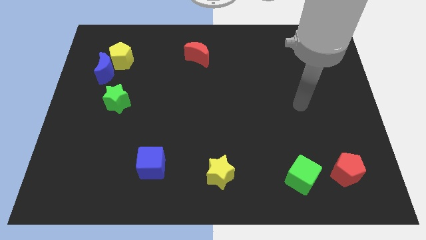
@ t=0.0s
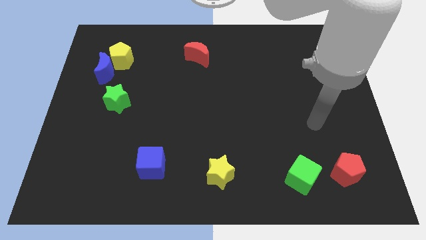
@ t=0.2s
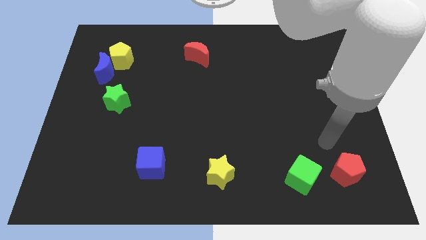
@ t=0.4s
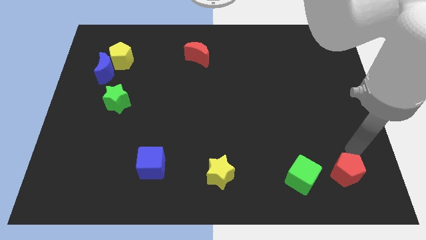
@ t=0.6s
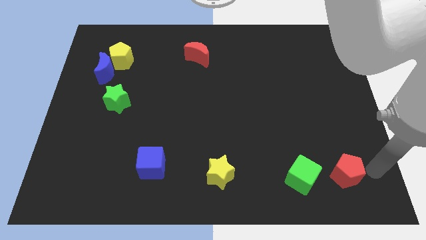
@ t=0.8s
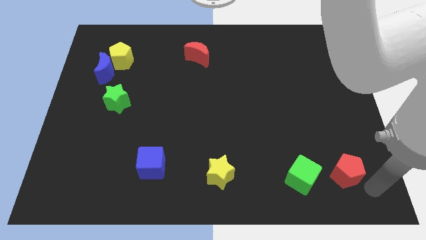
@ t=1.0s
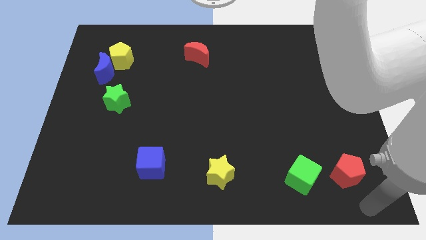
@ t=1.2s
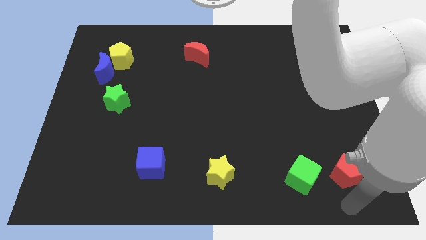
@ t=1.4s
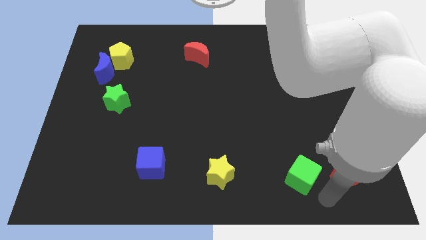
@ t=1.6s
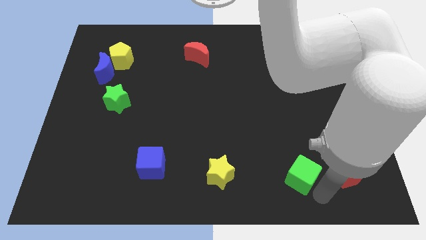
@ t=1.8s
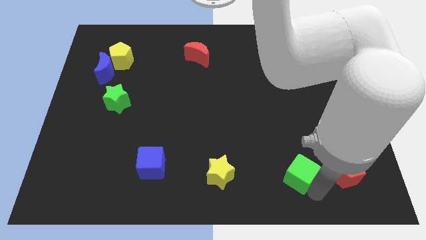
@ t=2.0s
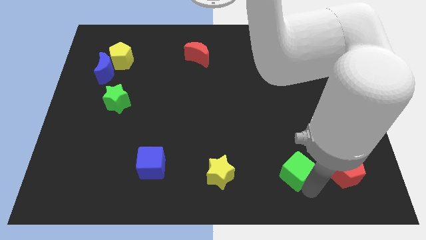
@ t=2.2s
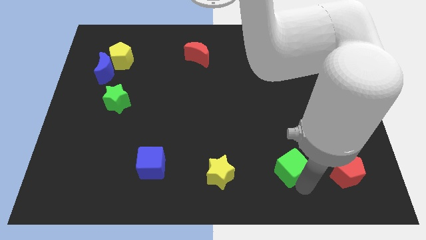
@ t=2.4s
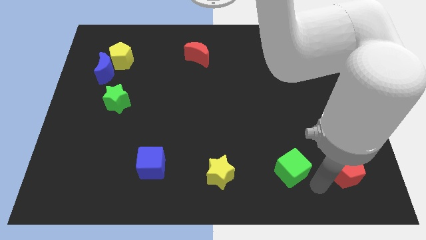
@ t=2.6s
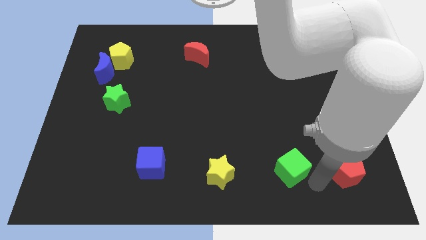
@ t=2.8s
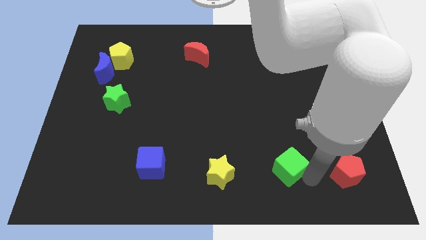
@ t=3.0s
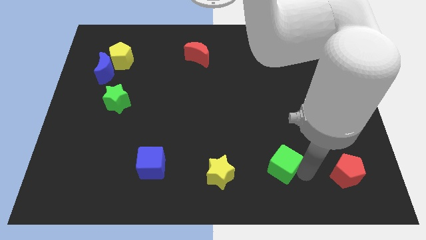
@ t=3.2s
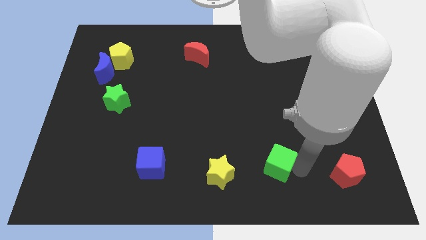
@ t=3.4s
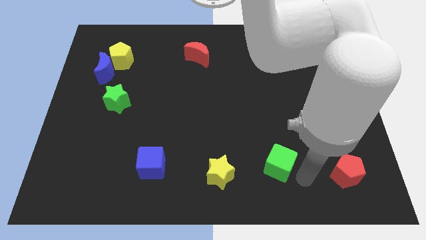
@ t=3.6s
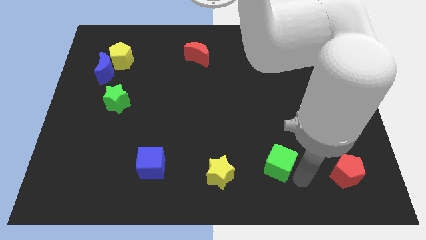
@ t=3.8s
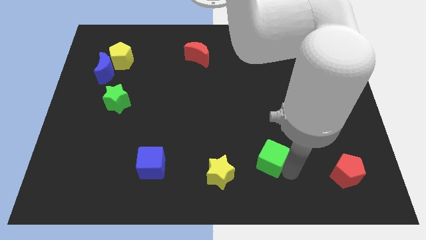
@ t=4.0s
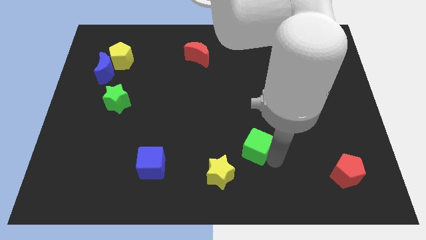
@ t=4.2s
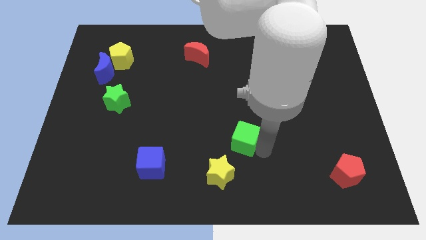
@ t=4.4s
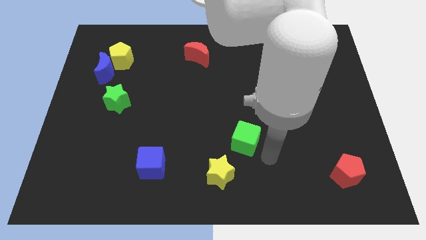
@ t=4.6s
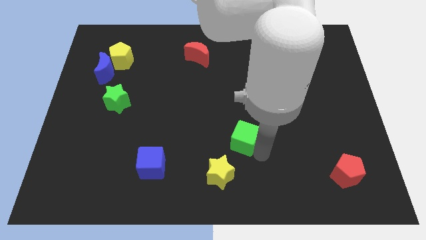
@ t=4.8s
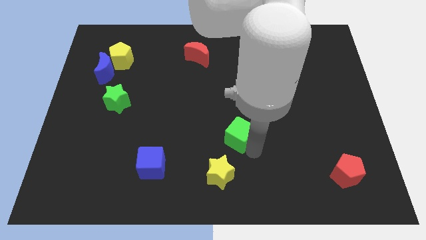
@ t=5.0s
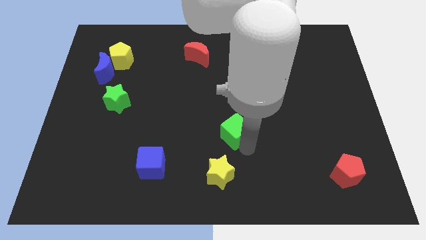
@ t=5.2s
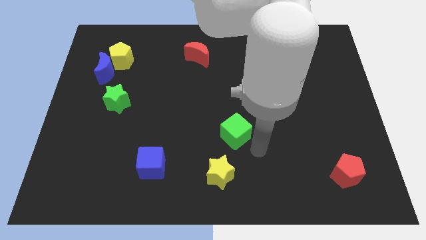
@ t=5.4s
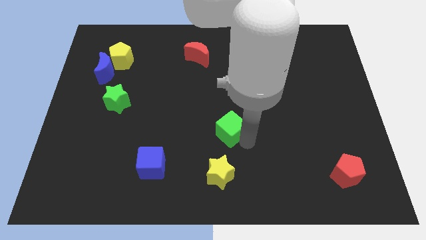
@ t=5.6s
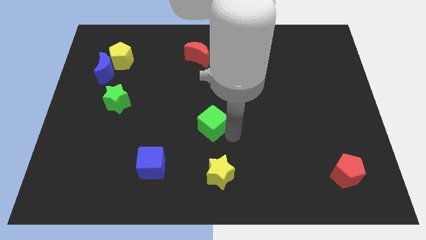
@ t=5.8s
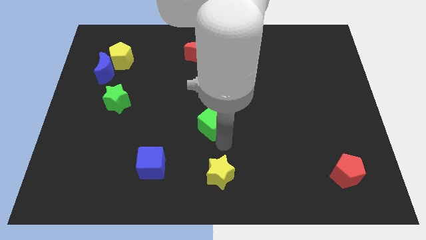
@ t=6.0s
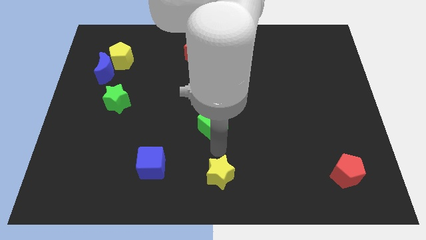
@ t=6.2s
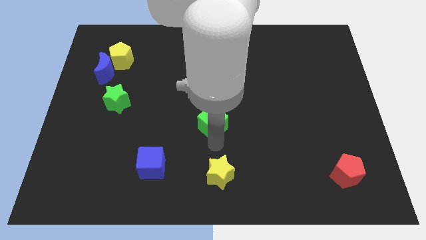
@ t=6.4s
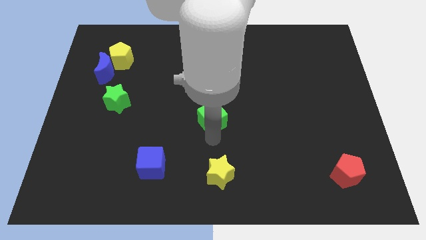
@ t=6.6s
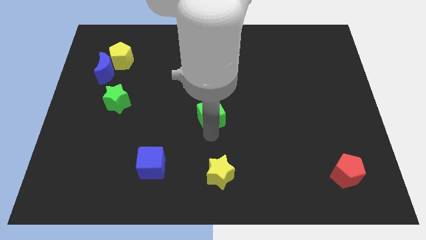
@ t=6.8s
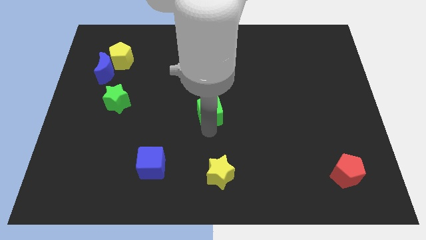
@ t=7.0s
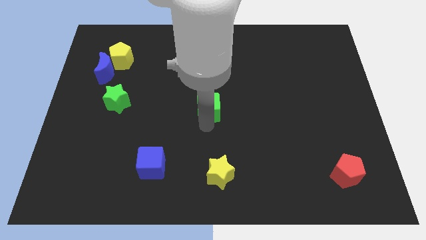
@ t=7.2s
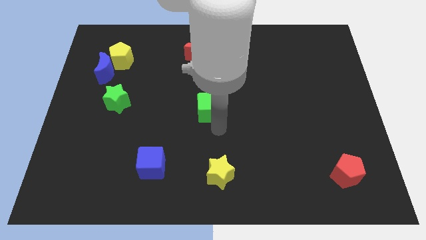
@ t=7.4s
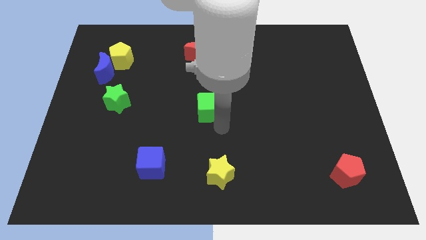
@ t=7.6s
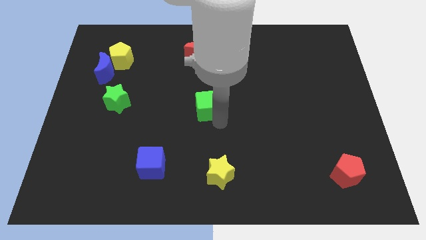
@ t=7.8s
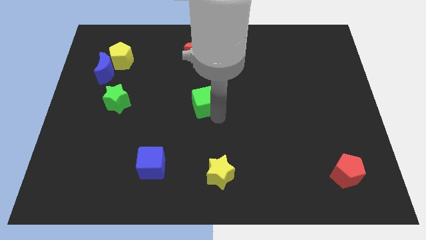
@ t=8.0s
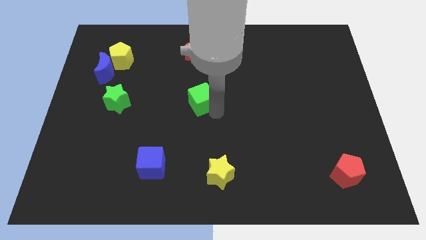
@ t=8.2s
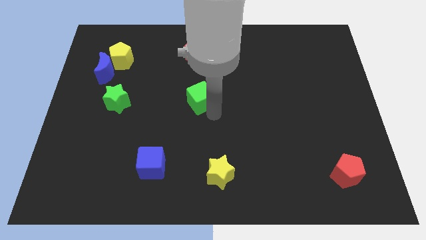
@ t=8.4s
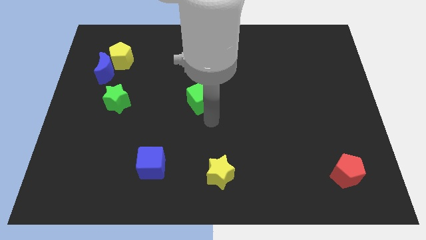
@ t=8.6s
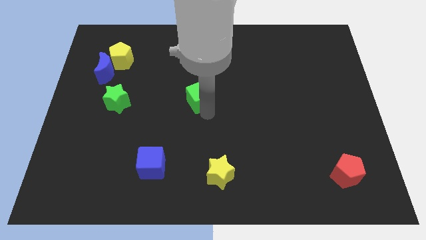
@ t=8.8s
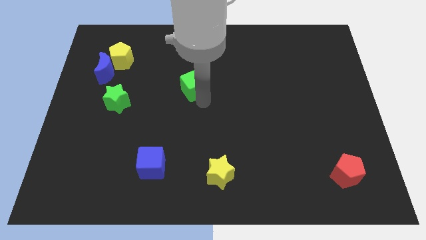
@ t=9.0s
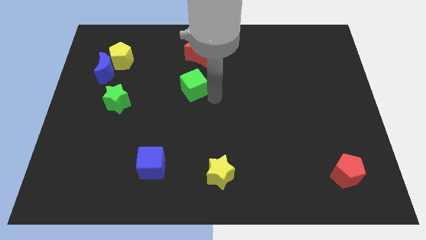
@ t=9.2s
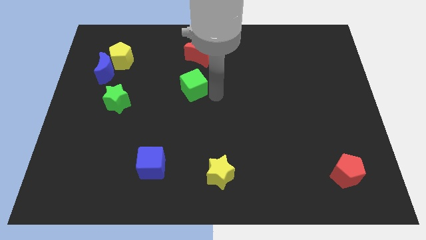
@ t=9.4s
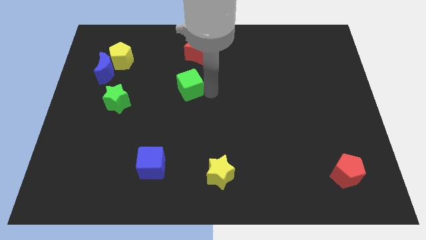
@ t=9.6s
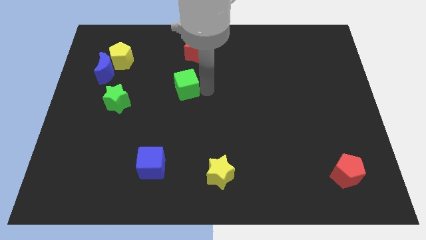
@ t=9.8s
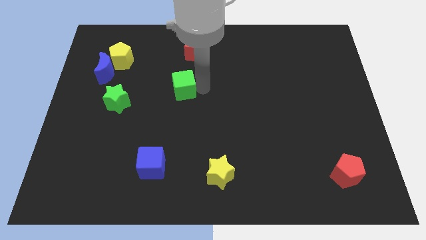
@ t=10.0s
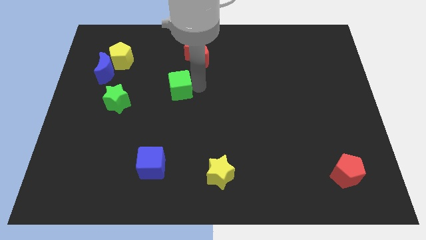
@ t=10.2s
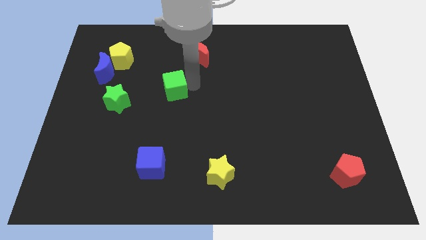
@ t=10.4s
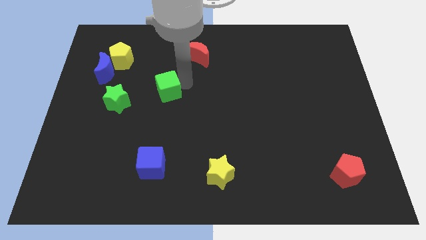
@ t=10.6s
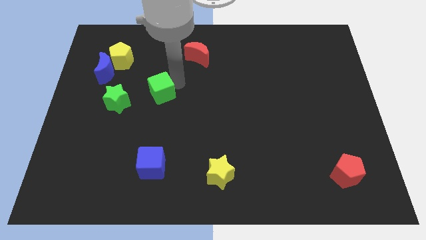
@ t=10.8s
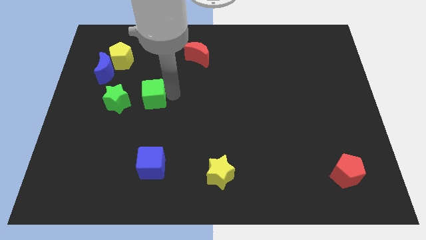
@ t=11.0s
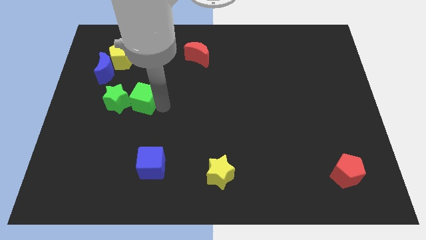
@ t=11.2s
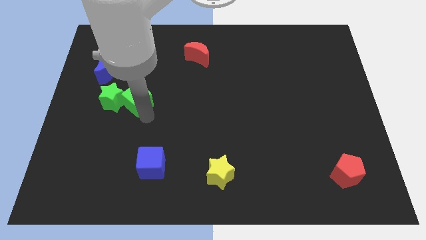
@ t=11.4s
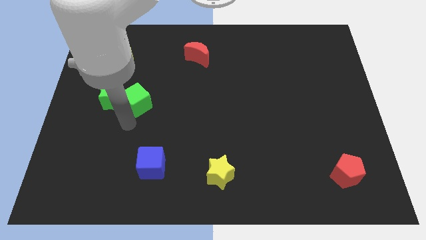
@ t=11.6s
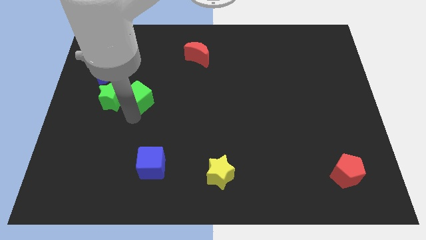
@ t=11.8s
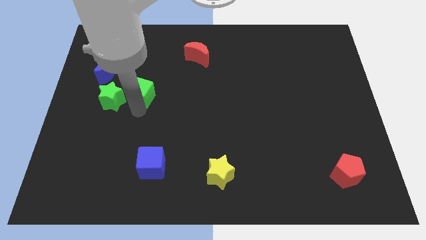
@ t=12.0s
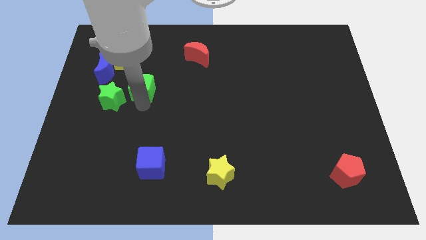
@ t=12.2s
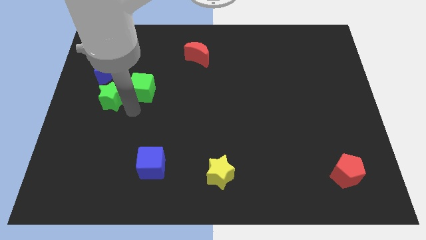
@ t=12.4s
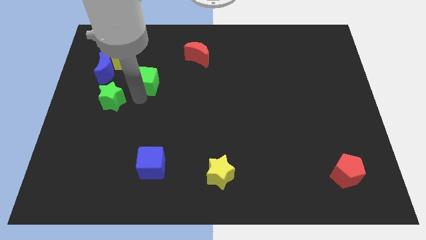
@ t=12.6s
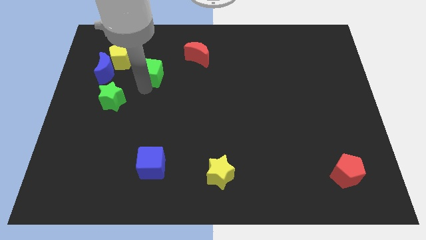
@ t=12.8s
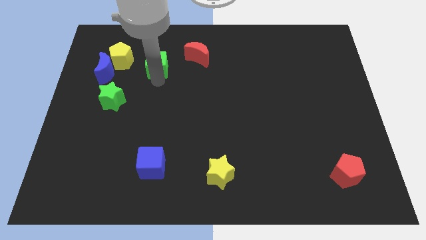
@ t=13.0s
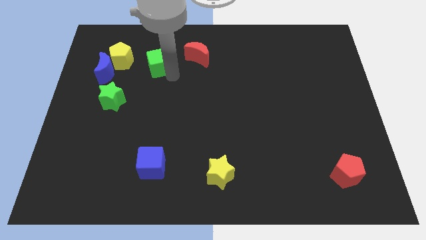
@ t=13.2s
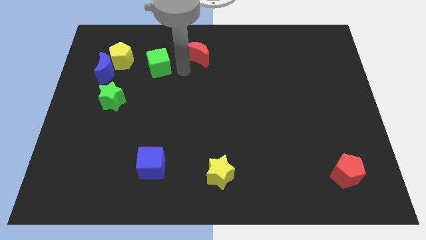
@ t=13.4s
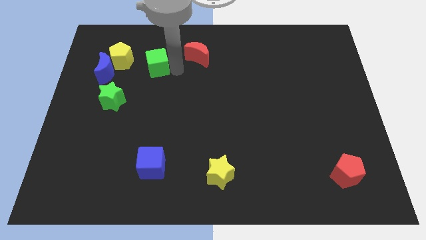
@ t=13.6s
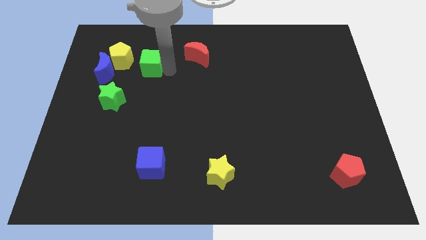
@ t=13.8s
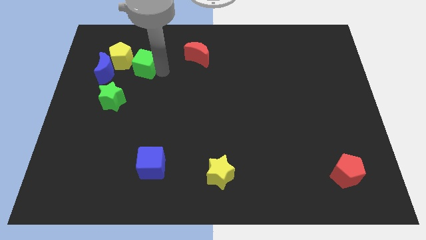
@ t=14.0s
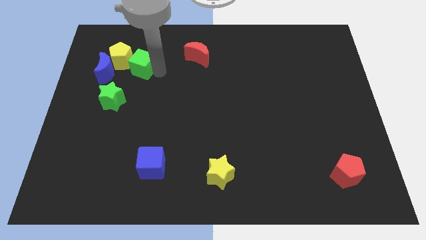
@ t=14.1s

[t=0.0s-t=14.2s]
push the green cube towards the yellow pentagon
